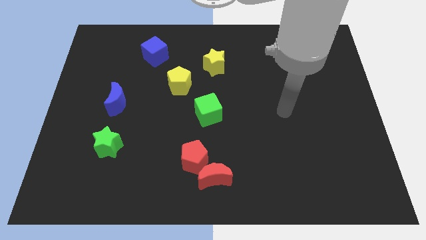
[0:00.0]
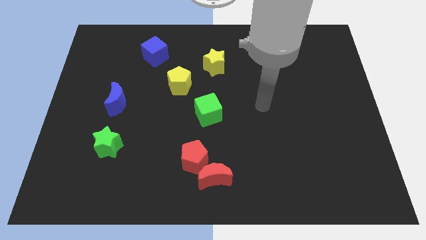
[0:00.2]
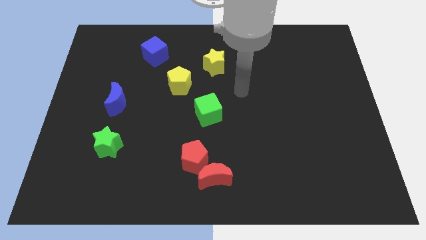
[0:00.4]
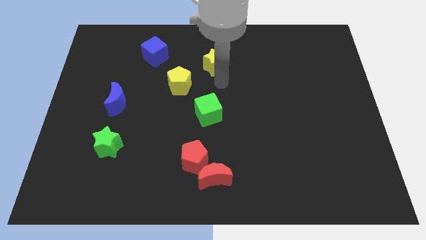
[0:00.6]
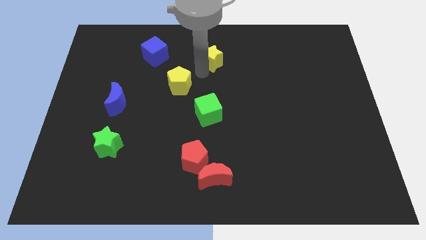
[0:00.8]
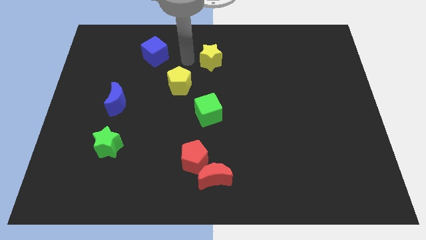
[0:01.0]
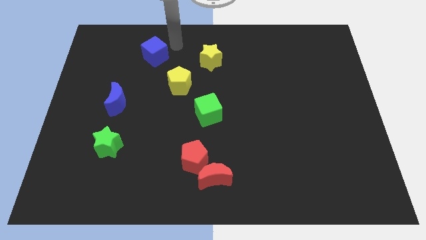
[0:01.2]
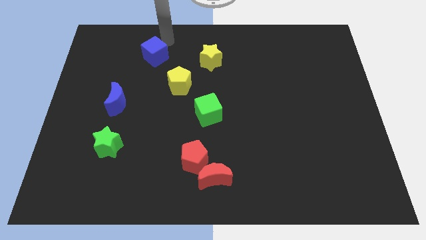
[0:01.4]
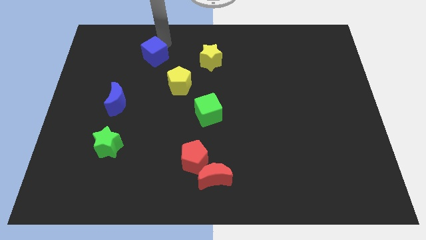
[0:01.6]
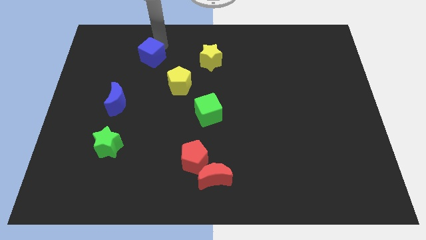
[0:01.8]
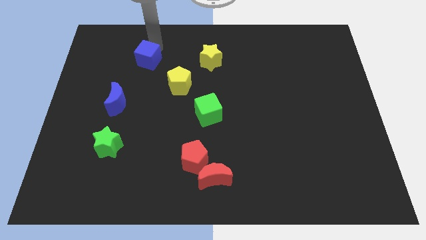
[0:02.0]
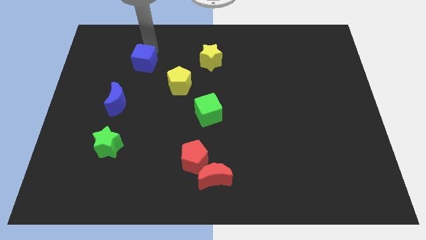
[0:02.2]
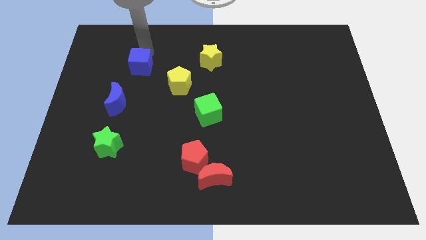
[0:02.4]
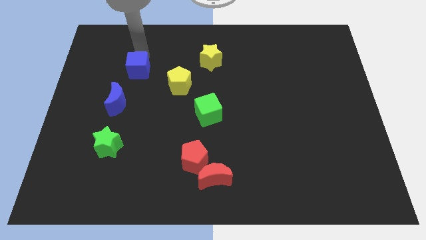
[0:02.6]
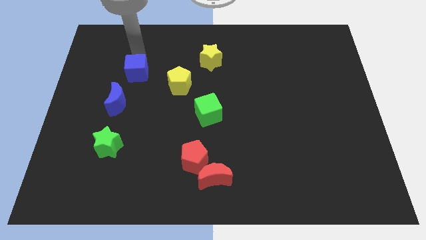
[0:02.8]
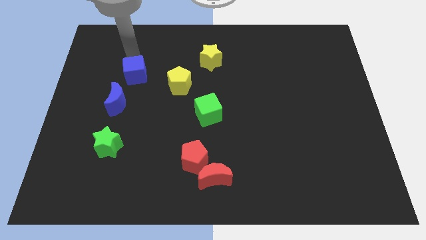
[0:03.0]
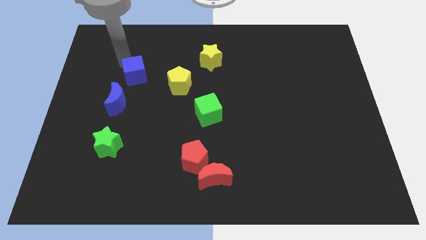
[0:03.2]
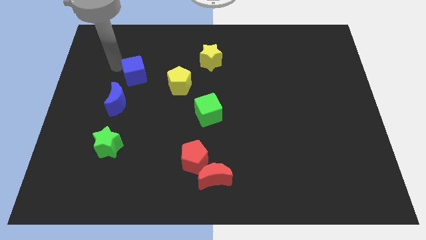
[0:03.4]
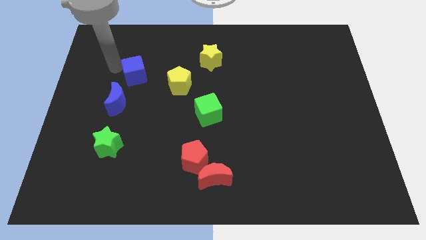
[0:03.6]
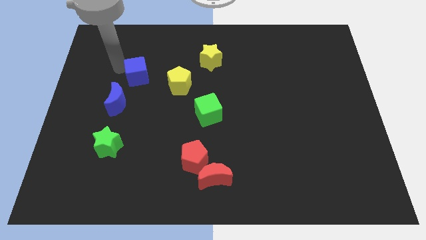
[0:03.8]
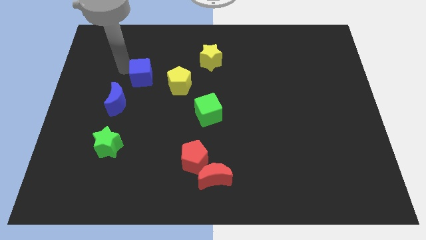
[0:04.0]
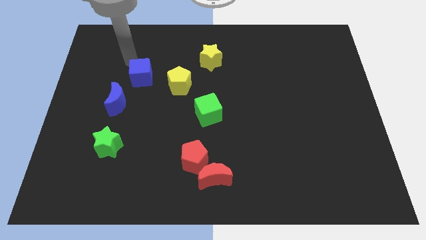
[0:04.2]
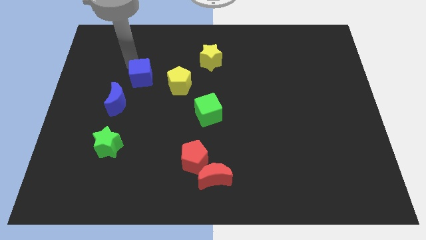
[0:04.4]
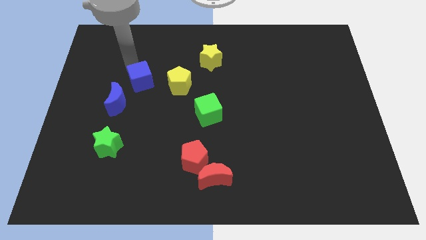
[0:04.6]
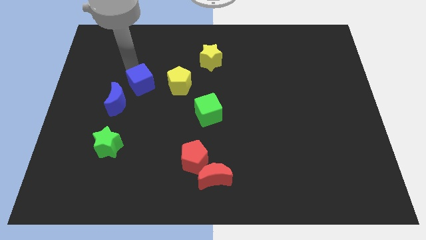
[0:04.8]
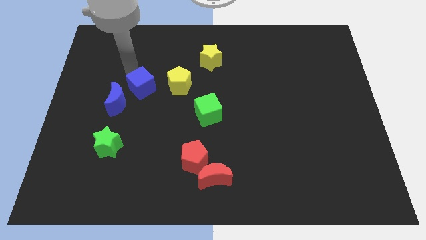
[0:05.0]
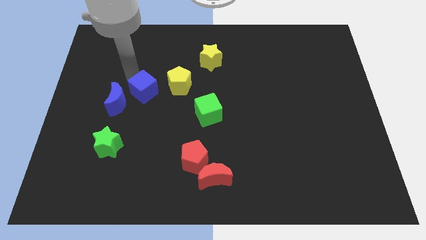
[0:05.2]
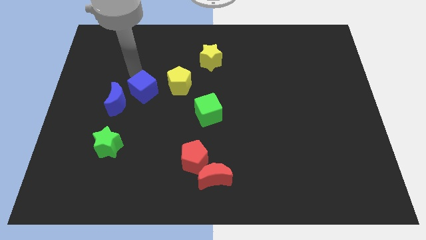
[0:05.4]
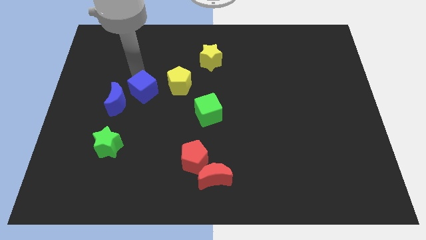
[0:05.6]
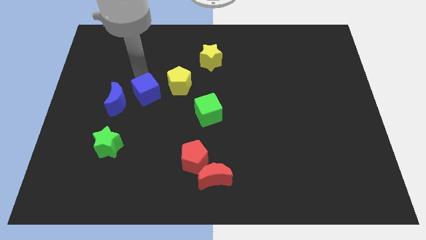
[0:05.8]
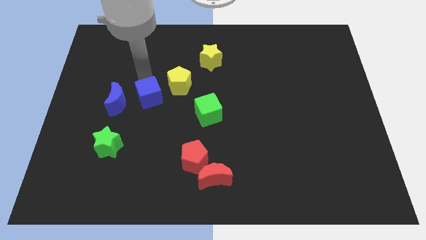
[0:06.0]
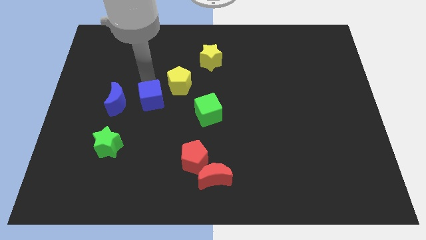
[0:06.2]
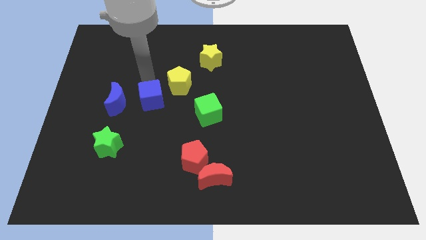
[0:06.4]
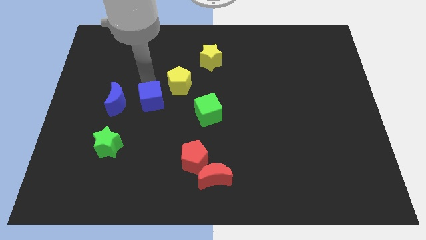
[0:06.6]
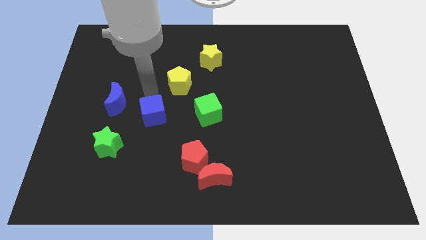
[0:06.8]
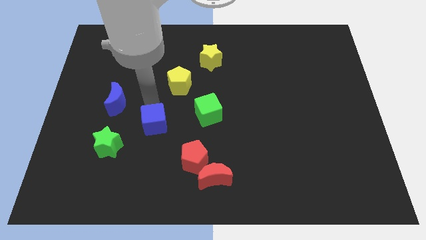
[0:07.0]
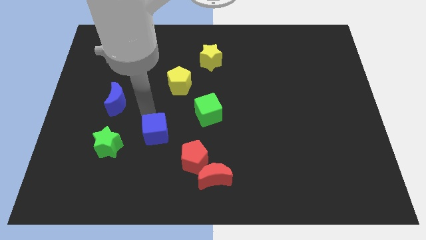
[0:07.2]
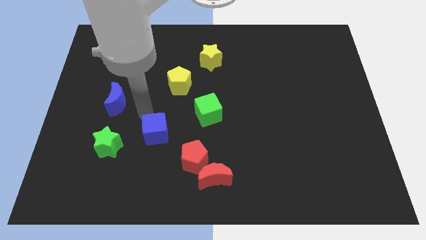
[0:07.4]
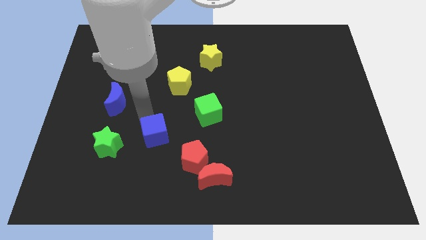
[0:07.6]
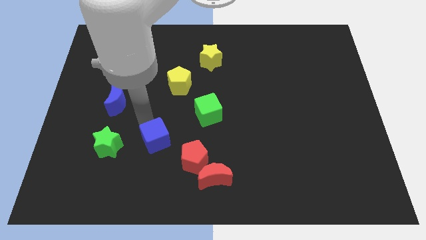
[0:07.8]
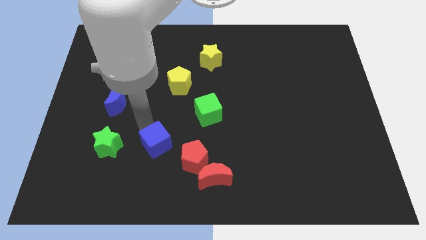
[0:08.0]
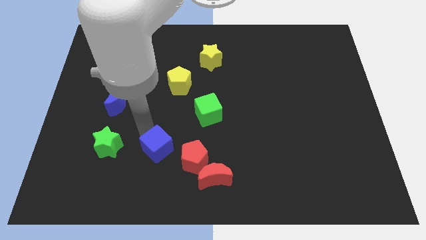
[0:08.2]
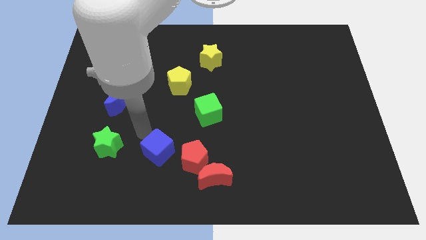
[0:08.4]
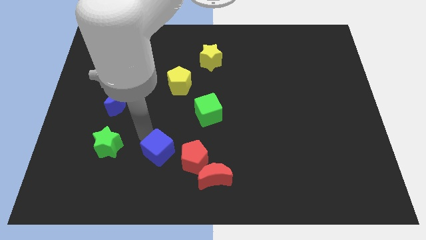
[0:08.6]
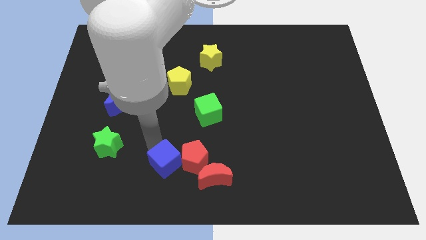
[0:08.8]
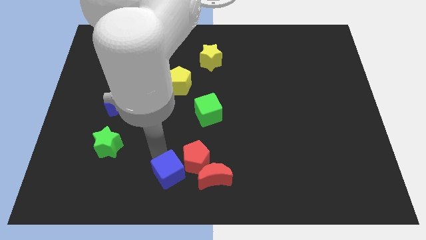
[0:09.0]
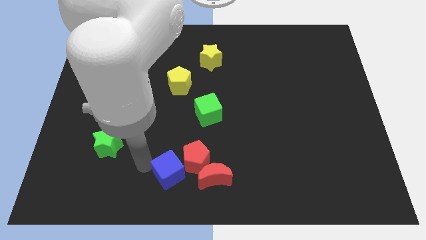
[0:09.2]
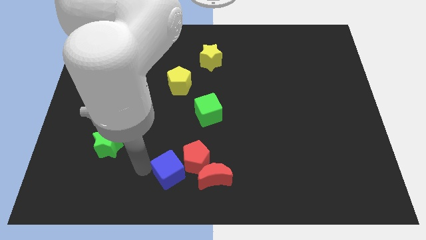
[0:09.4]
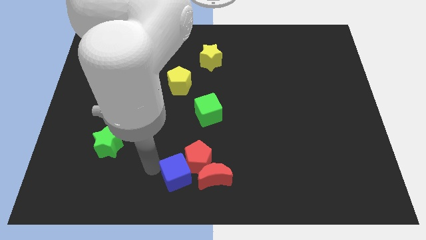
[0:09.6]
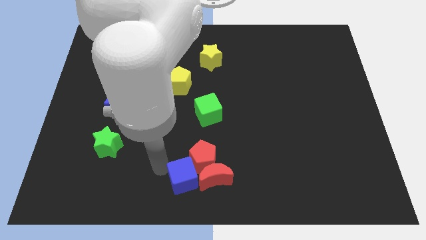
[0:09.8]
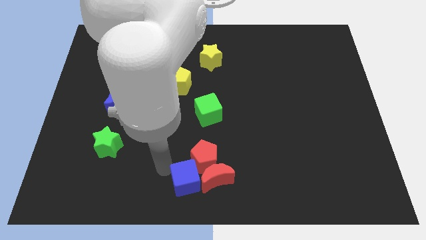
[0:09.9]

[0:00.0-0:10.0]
slide the blue cube towards the red moon

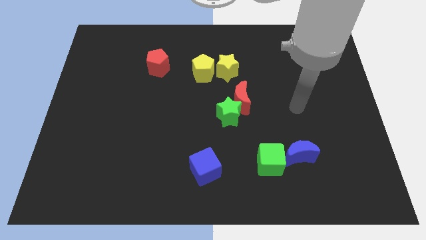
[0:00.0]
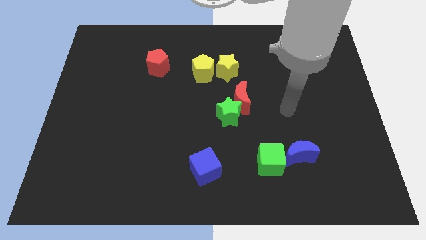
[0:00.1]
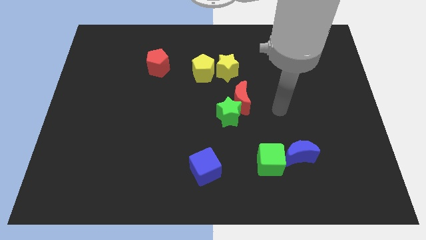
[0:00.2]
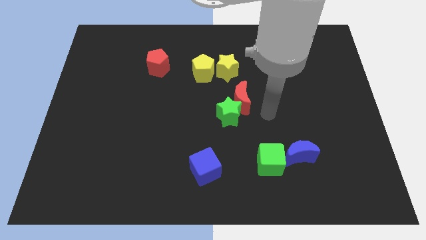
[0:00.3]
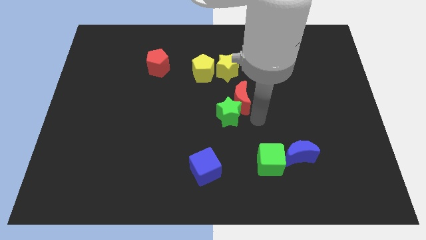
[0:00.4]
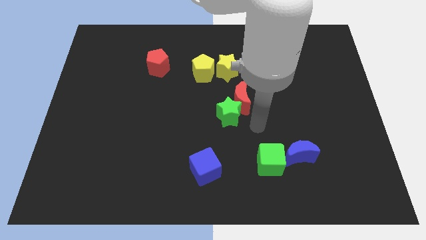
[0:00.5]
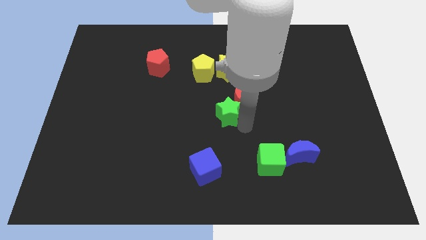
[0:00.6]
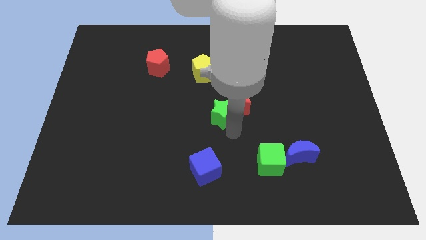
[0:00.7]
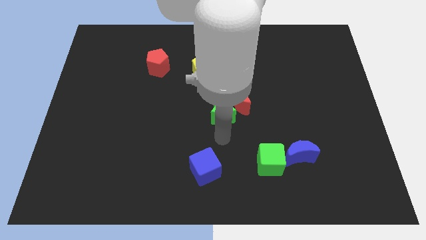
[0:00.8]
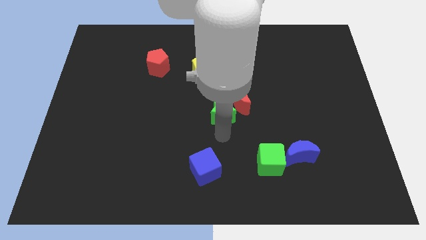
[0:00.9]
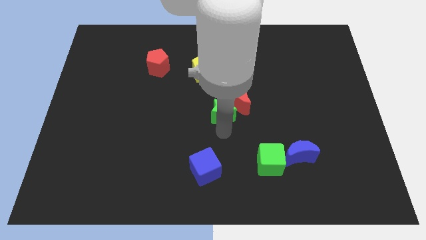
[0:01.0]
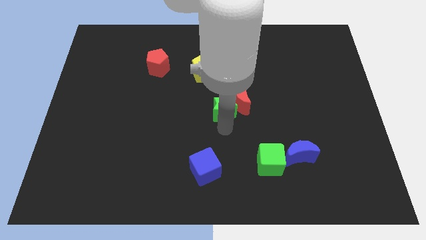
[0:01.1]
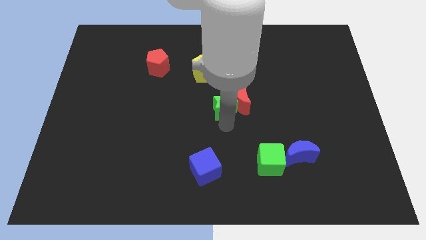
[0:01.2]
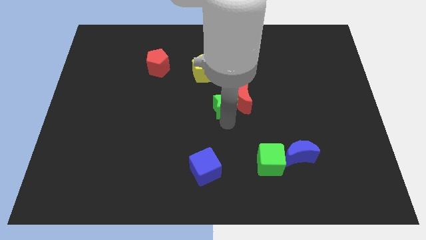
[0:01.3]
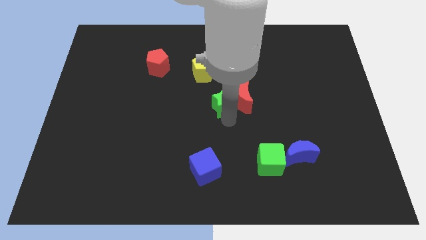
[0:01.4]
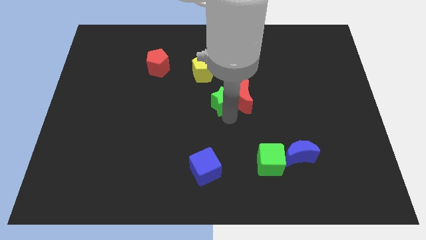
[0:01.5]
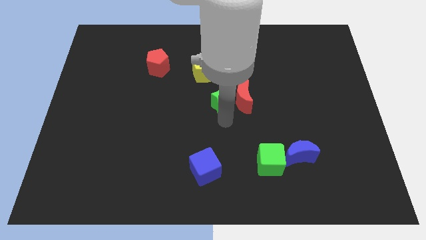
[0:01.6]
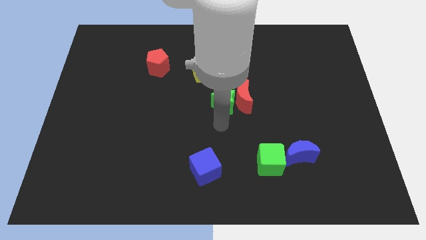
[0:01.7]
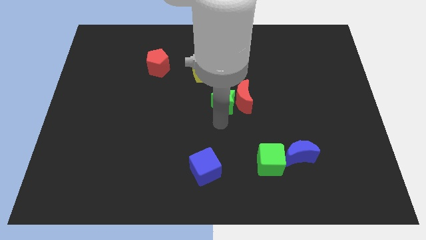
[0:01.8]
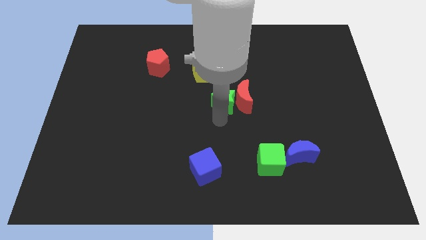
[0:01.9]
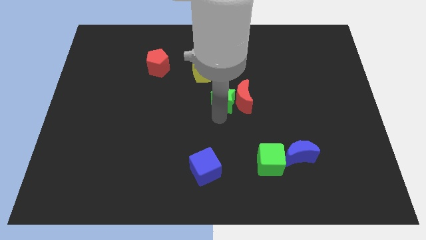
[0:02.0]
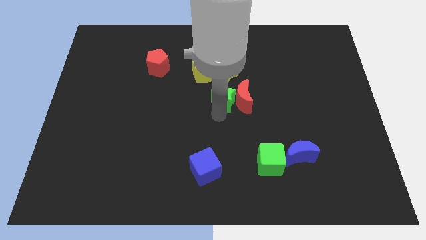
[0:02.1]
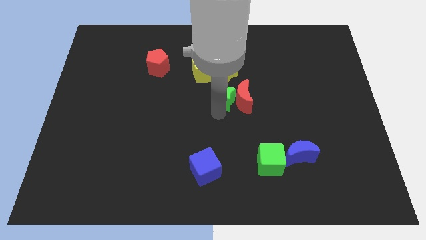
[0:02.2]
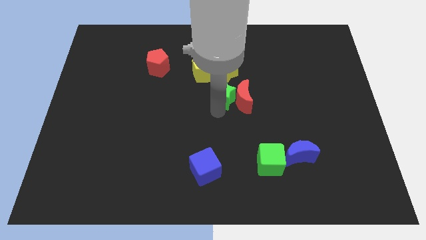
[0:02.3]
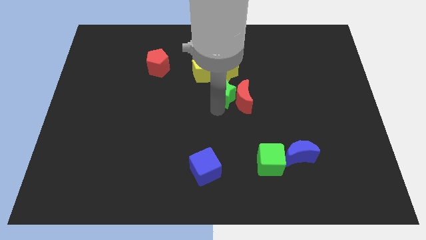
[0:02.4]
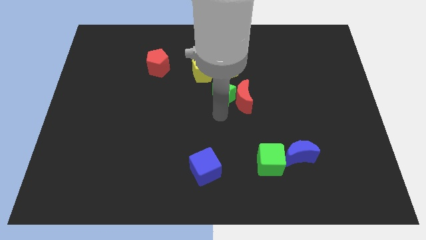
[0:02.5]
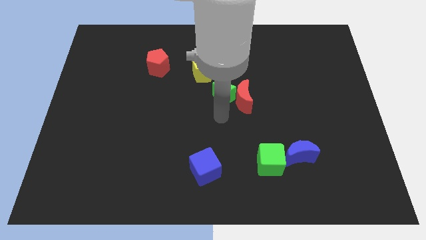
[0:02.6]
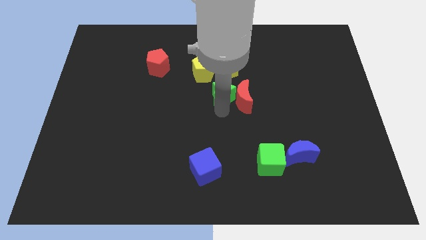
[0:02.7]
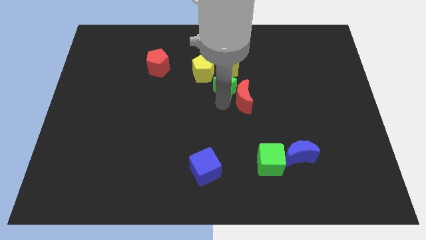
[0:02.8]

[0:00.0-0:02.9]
slide the green star next to the yellow star
